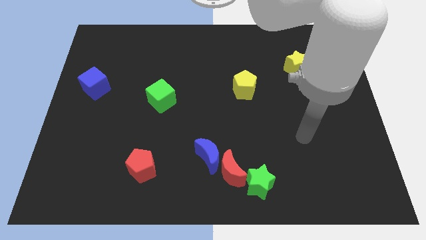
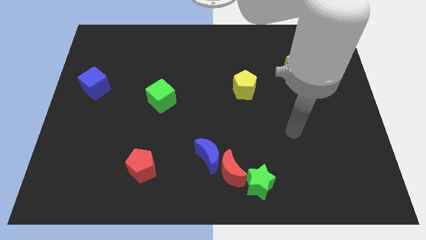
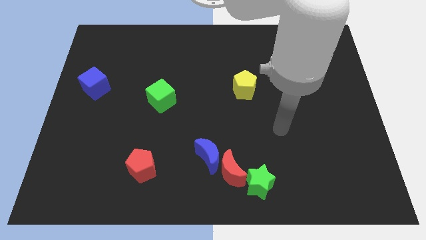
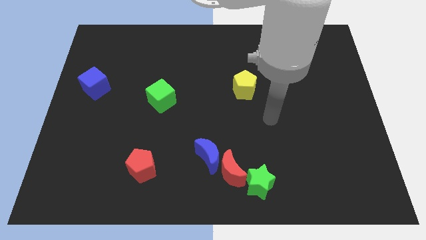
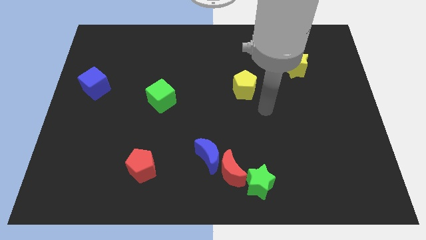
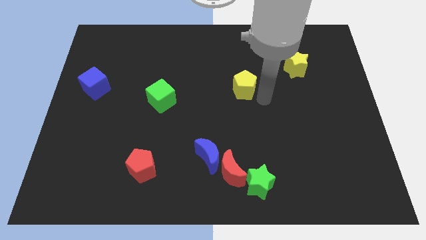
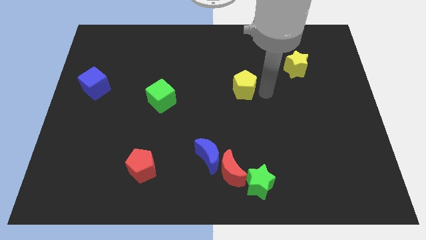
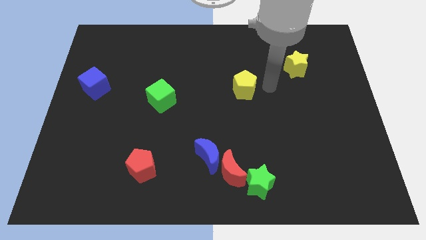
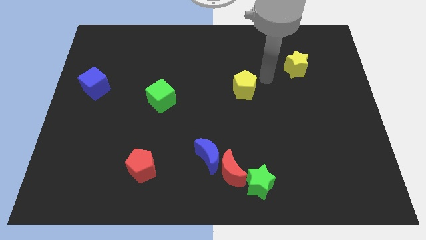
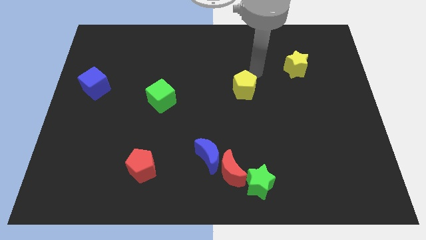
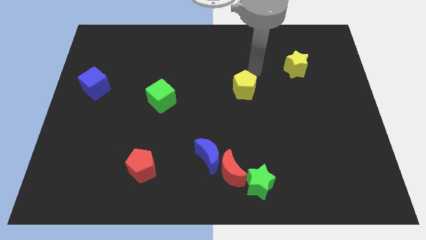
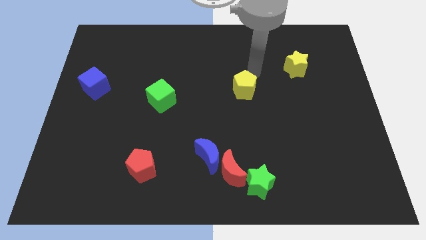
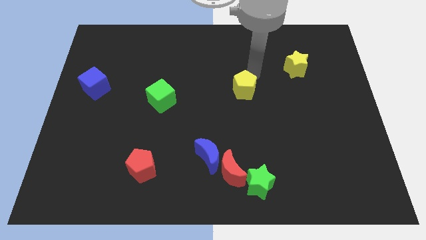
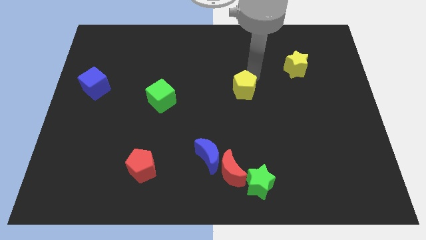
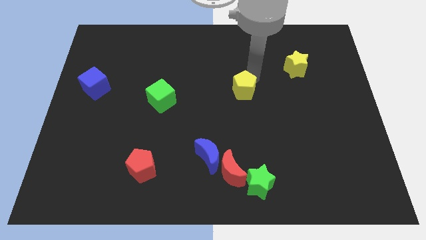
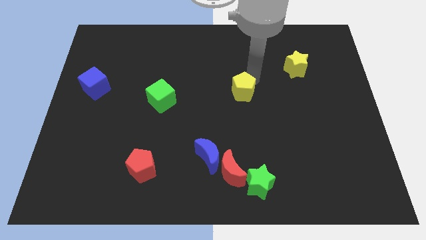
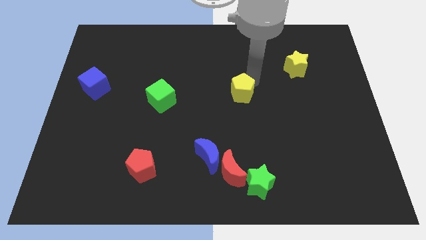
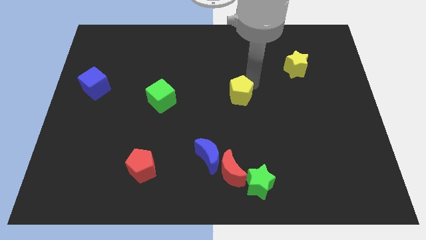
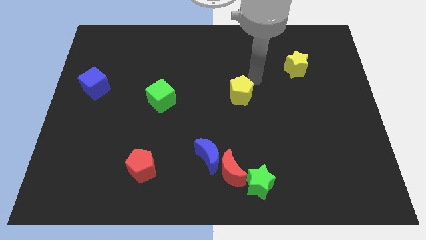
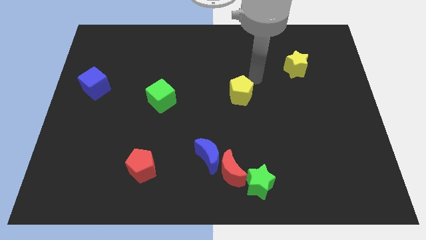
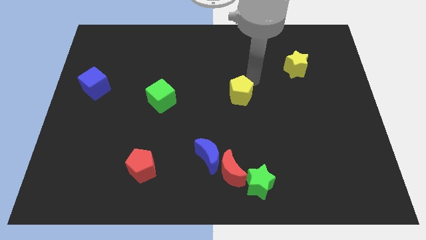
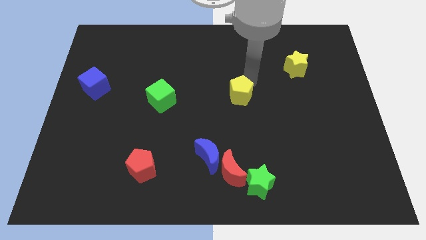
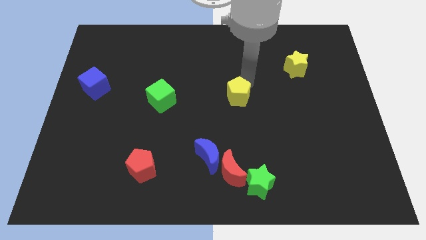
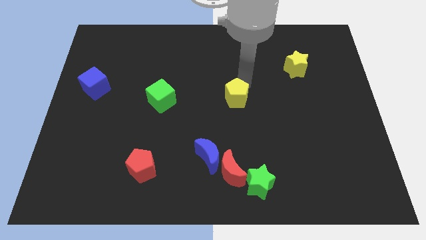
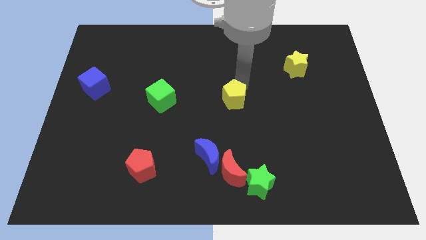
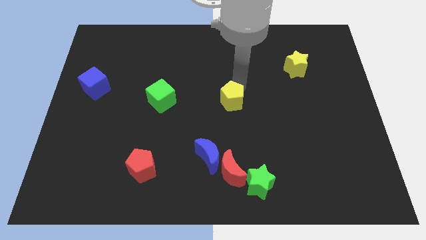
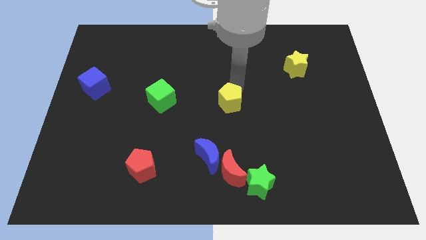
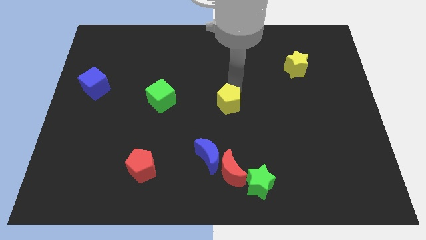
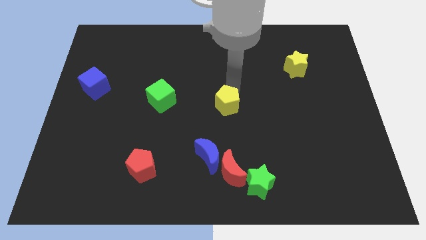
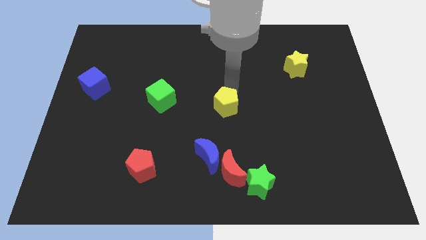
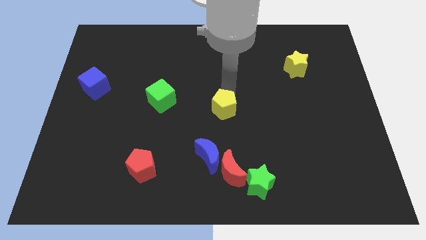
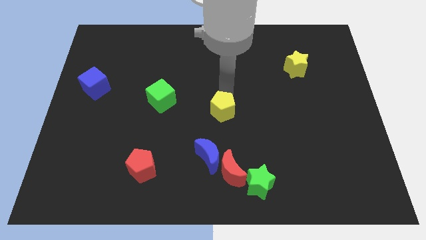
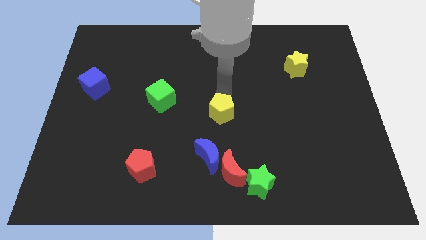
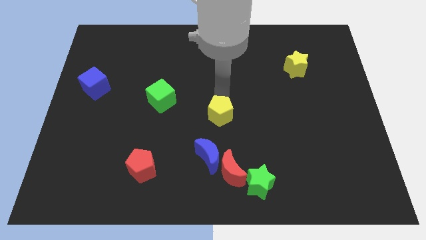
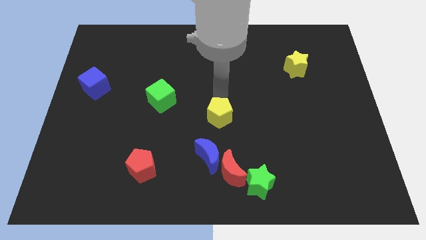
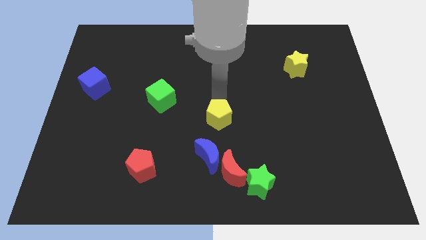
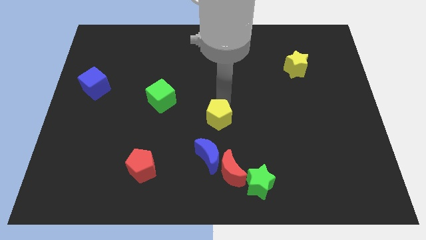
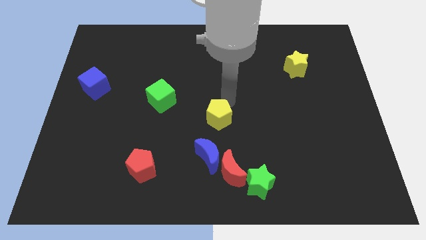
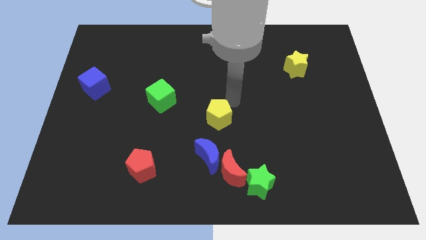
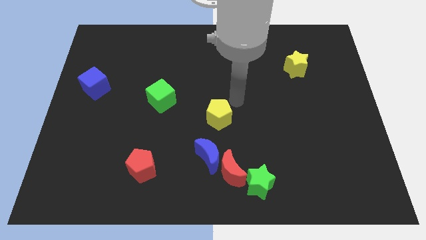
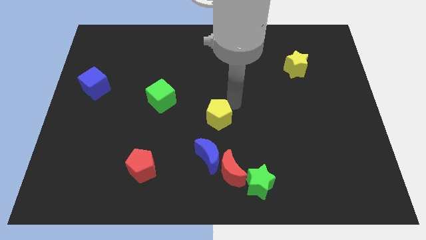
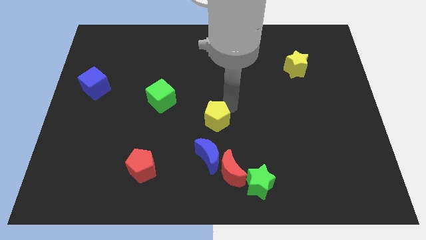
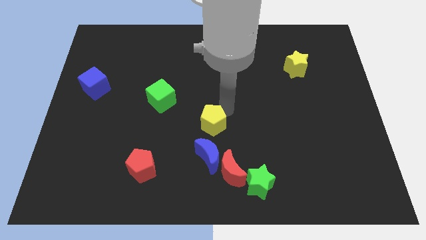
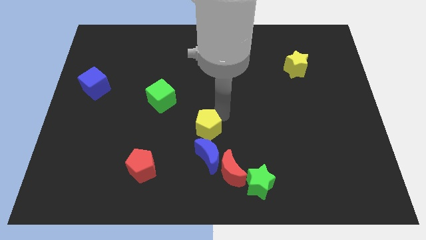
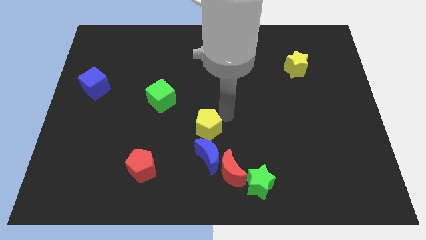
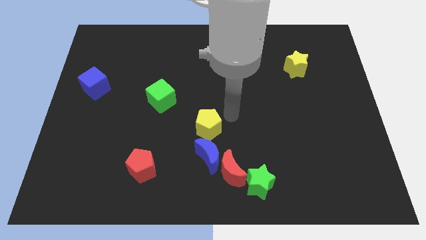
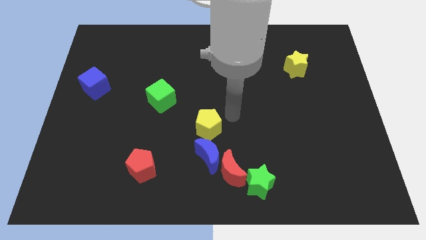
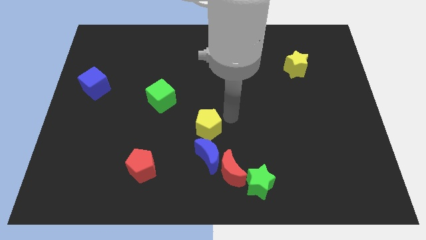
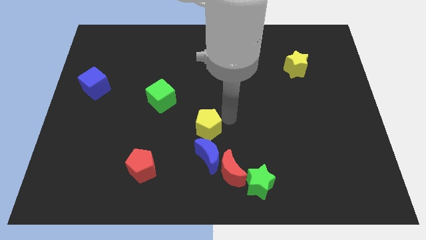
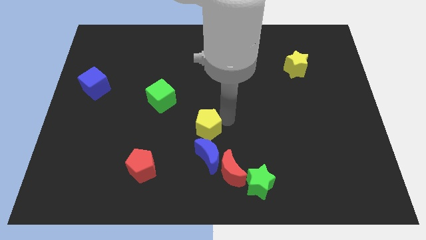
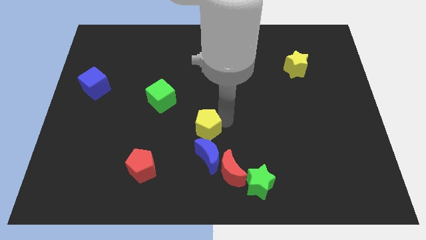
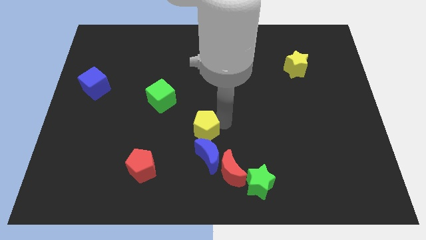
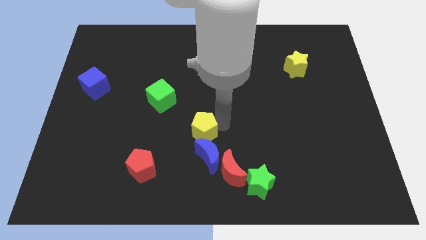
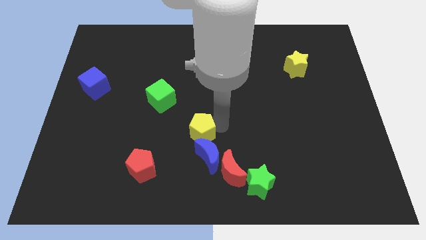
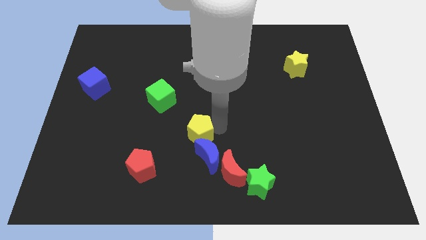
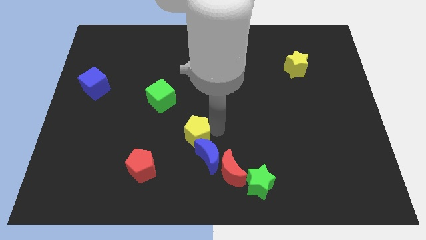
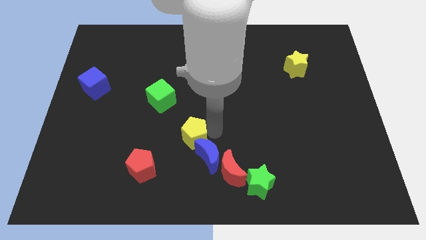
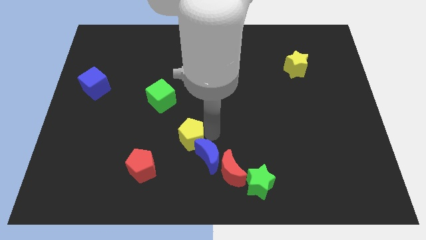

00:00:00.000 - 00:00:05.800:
slide the yellow pentagon diagonally up and to the right of the red pentagon

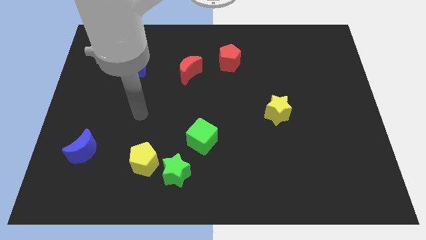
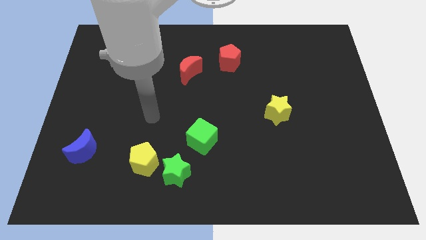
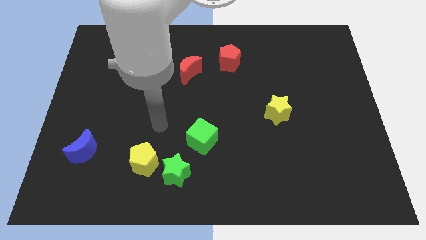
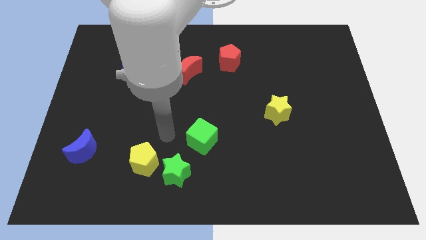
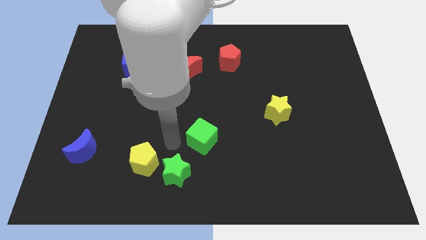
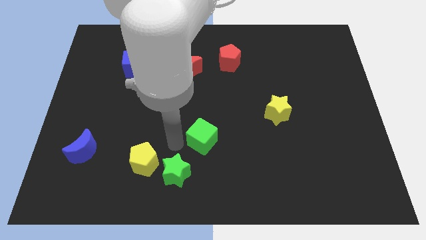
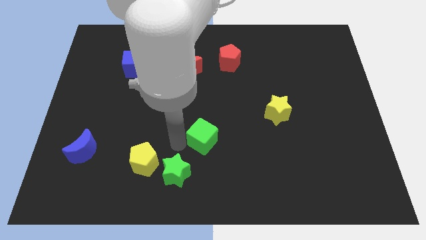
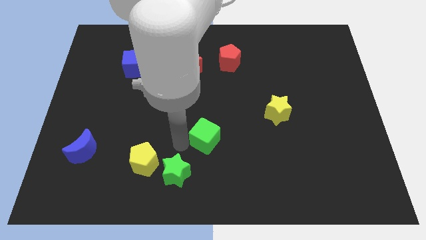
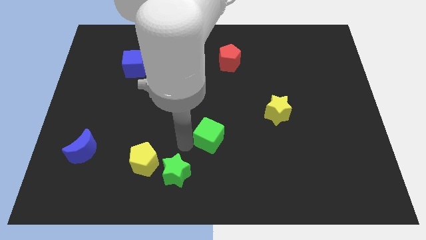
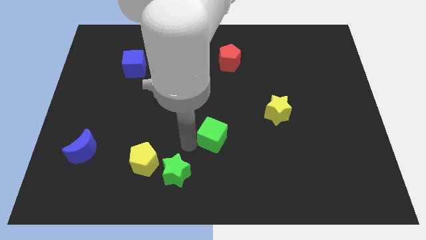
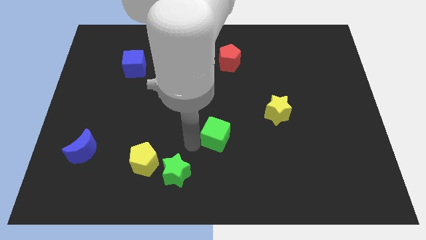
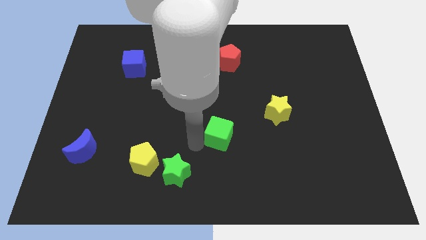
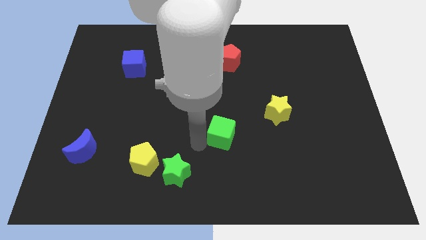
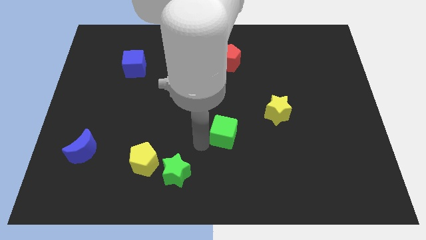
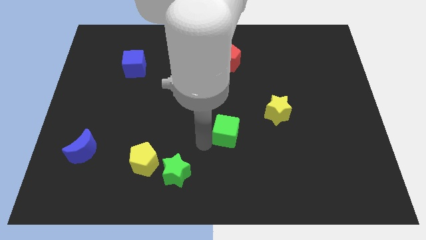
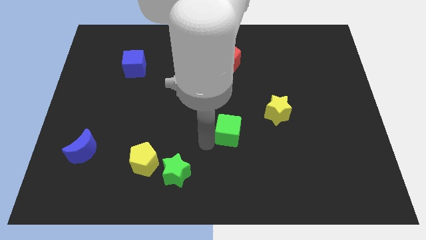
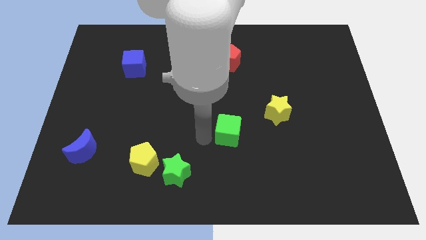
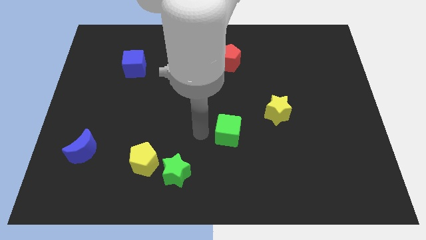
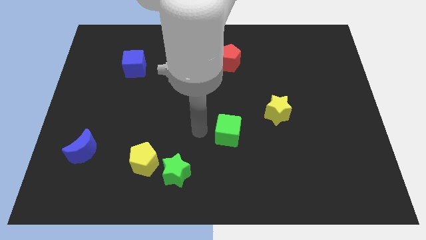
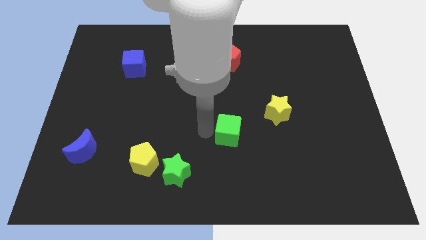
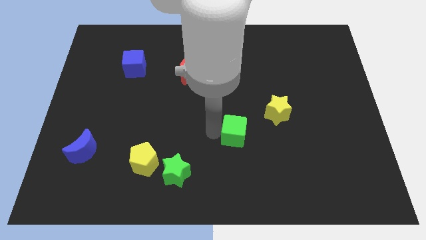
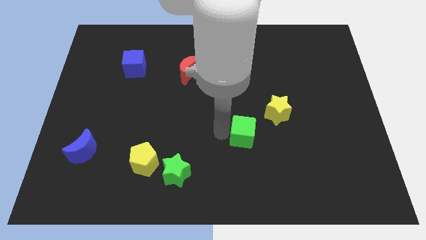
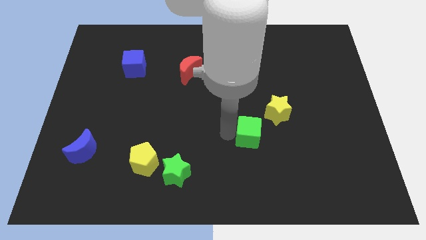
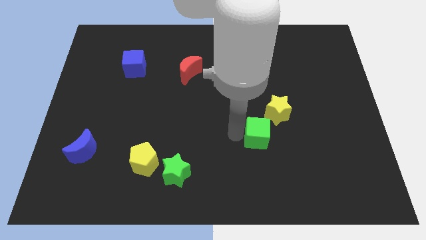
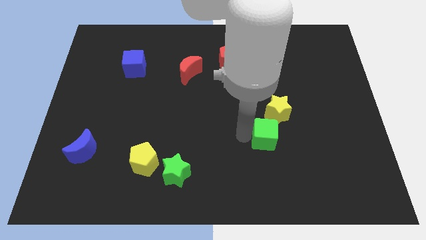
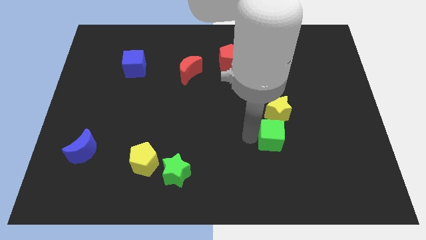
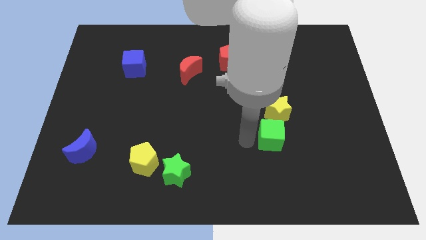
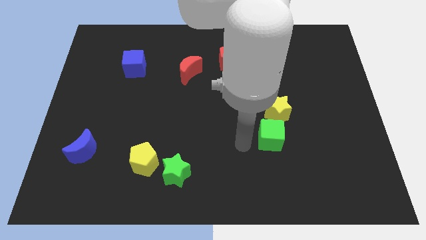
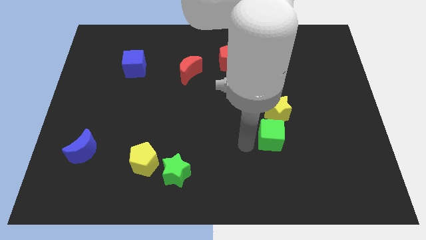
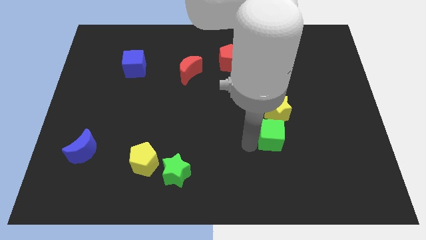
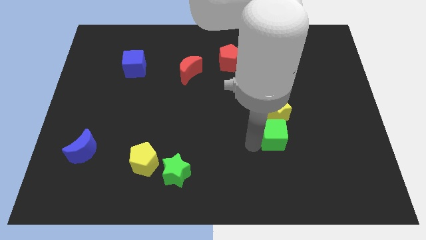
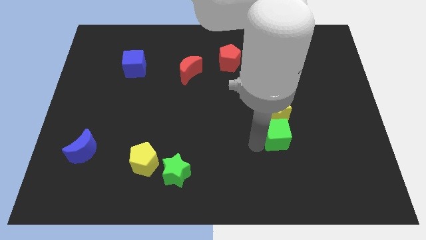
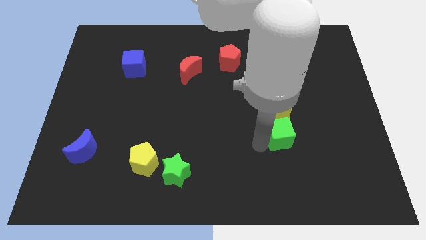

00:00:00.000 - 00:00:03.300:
put the green cube to the bottom right of the yellow star
